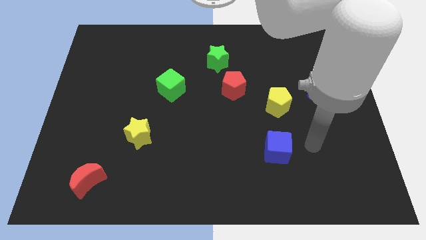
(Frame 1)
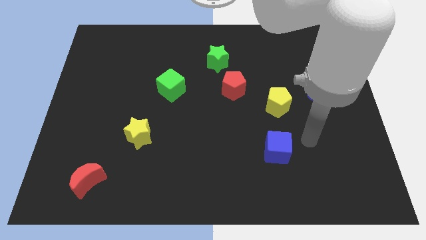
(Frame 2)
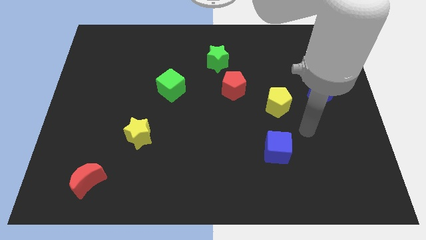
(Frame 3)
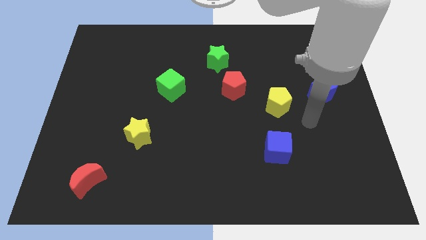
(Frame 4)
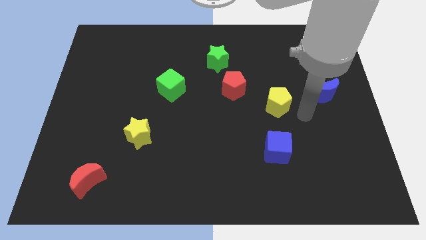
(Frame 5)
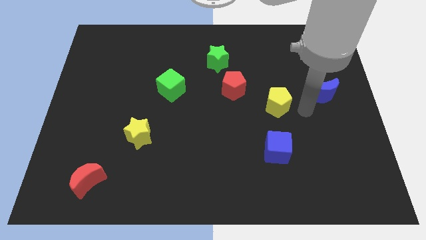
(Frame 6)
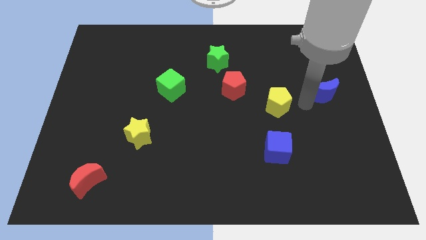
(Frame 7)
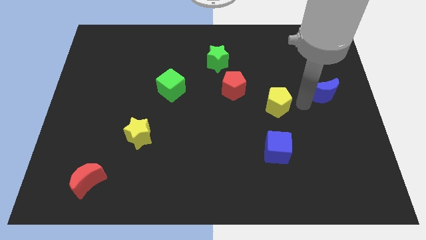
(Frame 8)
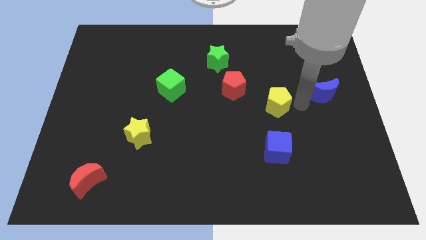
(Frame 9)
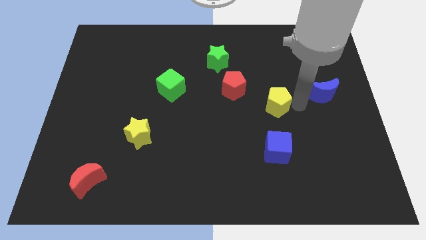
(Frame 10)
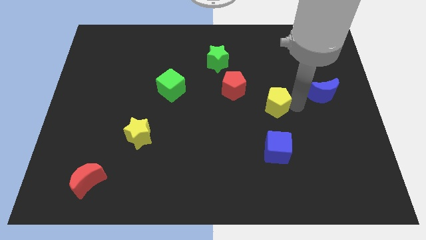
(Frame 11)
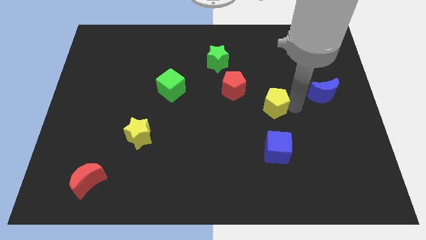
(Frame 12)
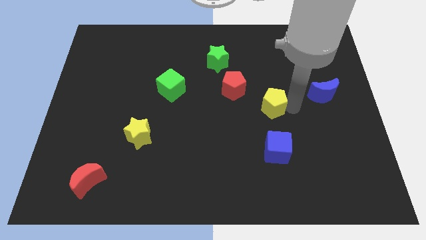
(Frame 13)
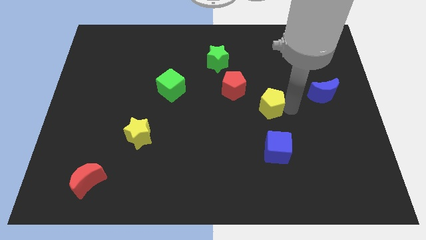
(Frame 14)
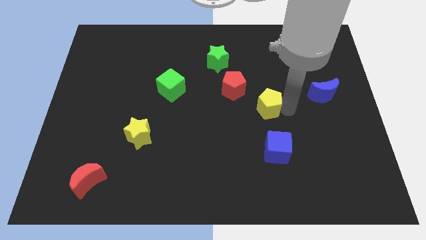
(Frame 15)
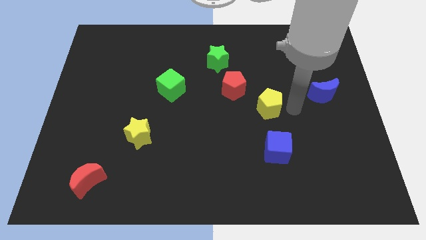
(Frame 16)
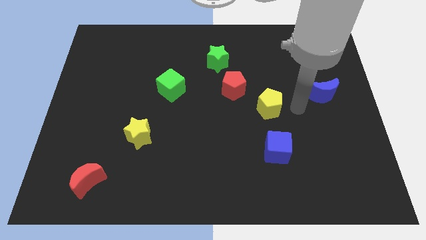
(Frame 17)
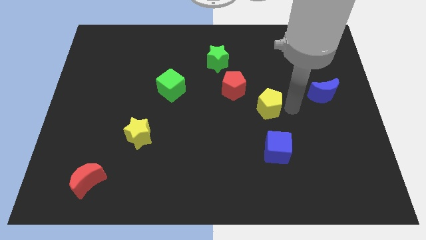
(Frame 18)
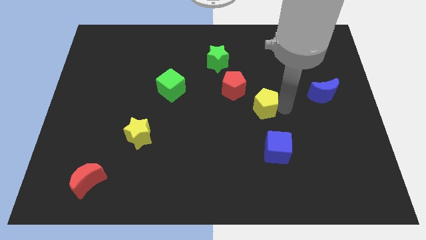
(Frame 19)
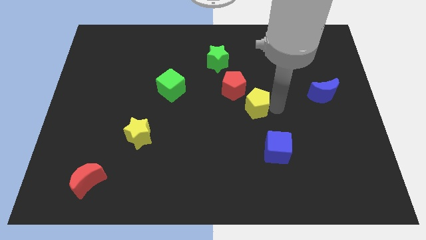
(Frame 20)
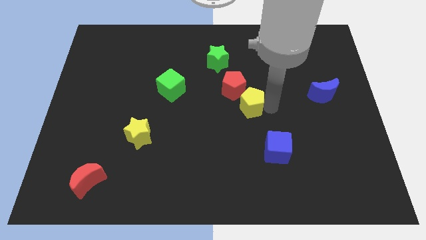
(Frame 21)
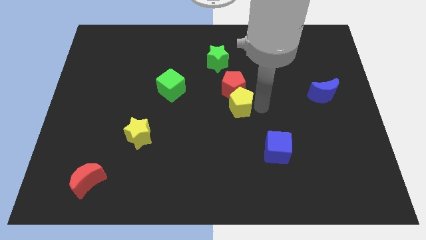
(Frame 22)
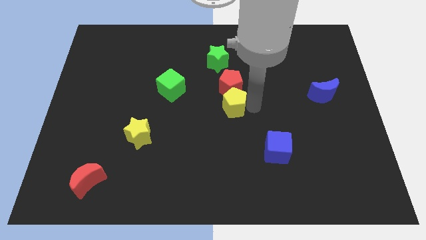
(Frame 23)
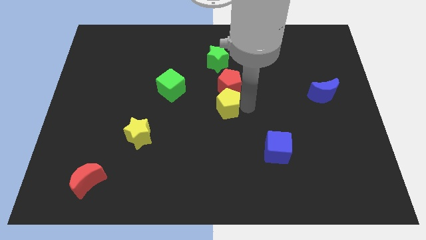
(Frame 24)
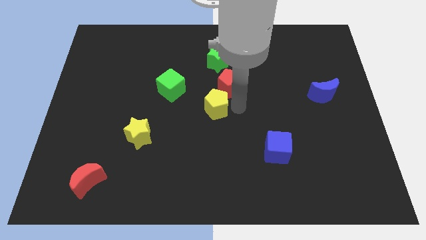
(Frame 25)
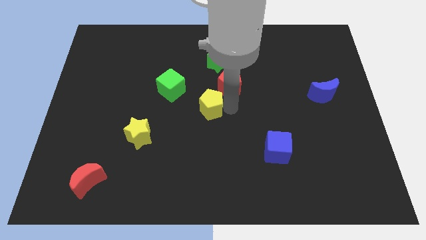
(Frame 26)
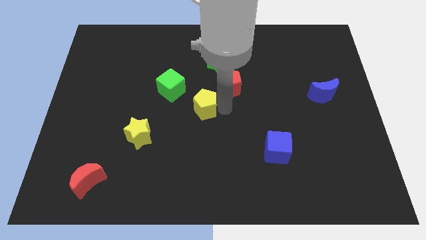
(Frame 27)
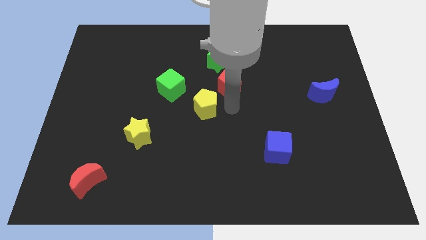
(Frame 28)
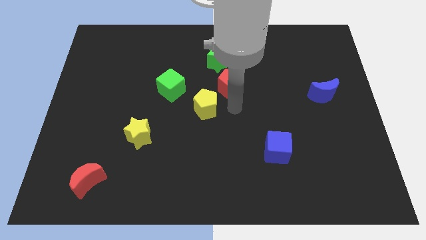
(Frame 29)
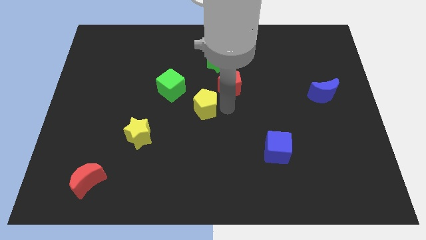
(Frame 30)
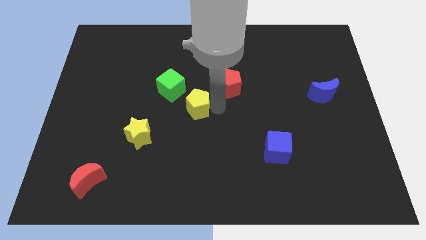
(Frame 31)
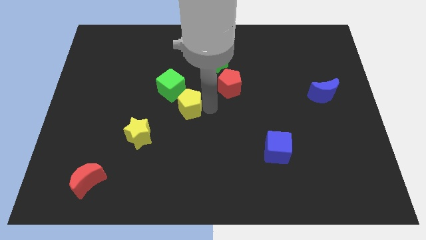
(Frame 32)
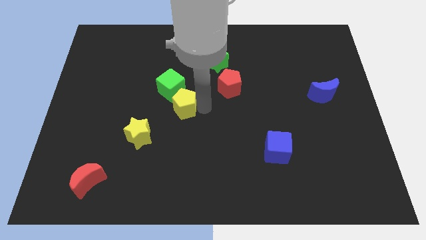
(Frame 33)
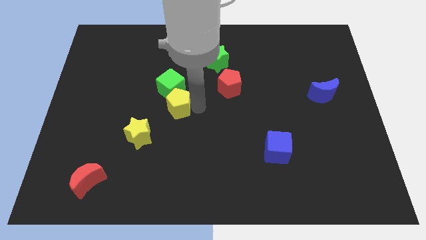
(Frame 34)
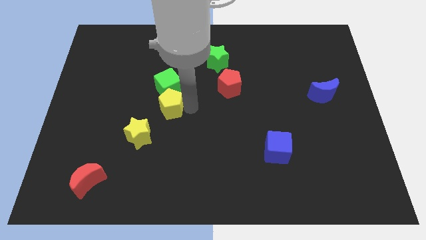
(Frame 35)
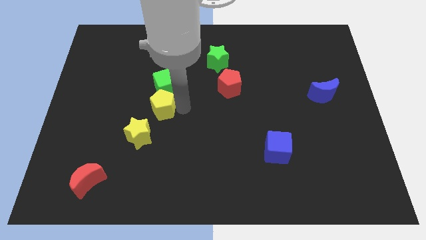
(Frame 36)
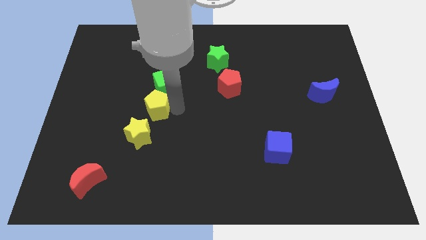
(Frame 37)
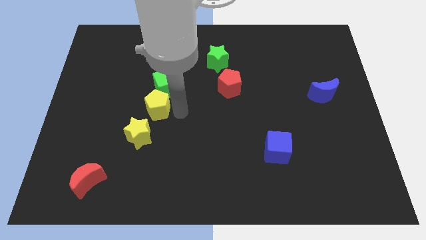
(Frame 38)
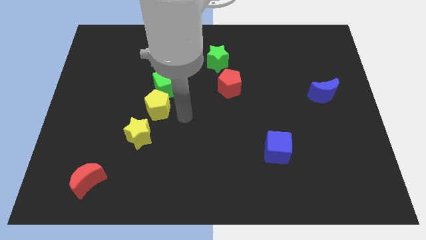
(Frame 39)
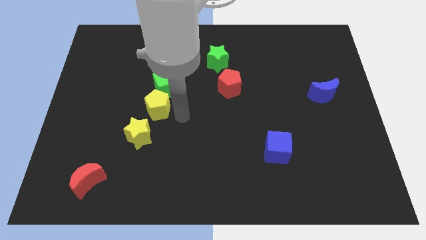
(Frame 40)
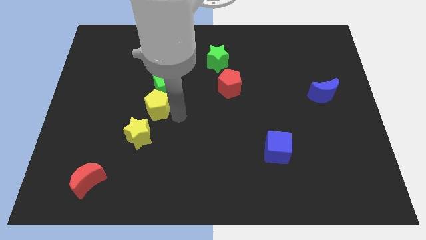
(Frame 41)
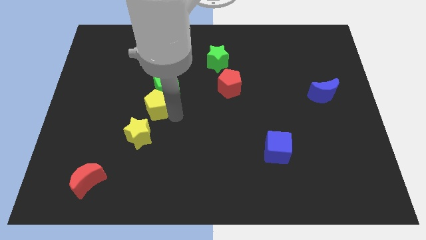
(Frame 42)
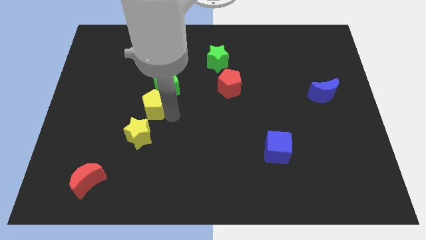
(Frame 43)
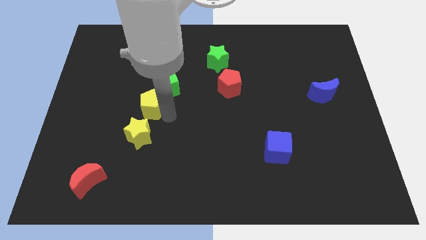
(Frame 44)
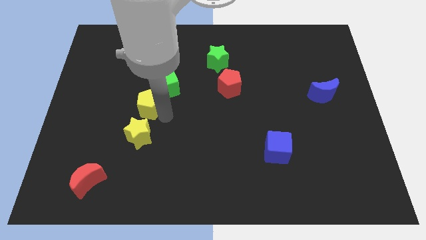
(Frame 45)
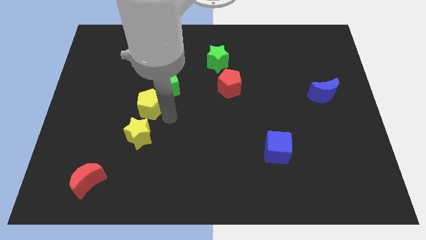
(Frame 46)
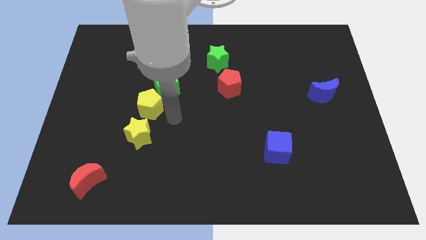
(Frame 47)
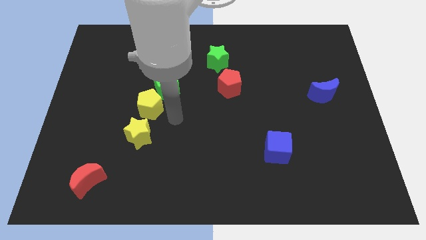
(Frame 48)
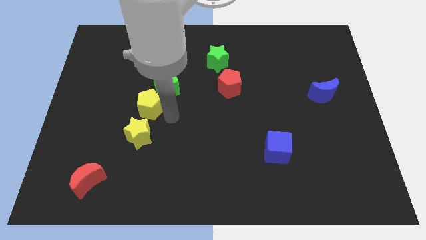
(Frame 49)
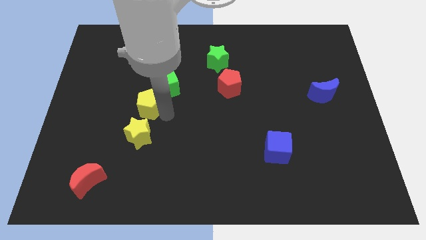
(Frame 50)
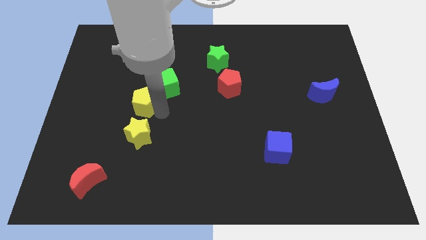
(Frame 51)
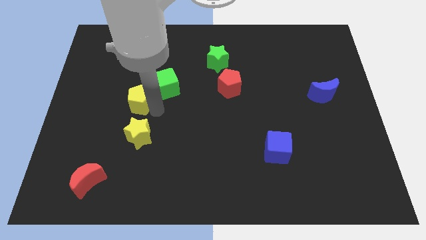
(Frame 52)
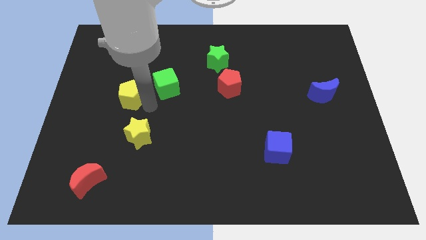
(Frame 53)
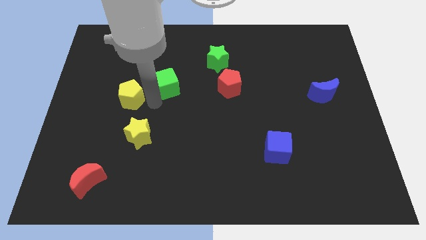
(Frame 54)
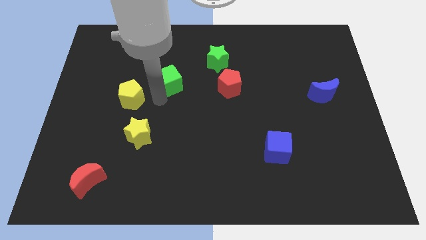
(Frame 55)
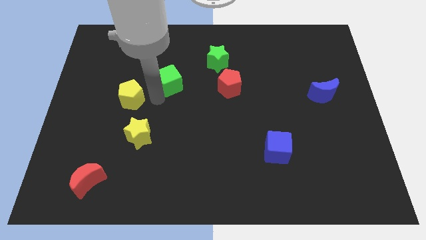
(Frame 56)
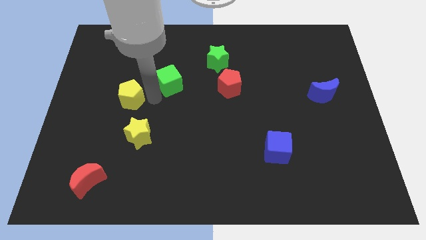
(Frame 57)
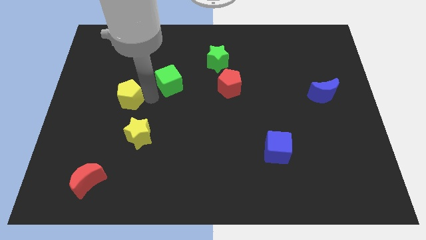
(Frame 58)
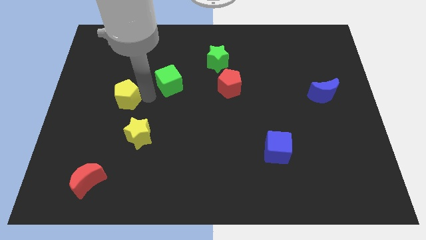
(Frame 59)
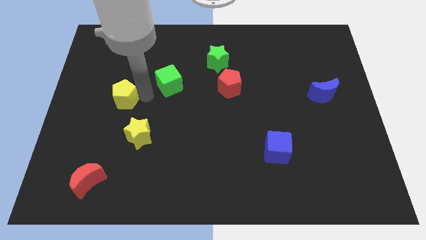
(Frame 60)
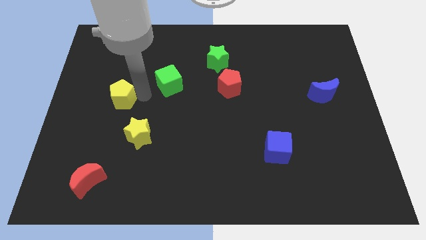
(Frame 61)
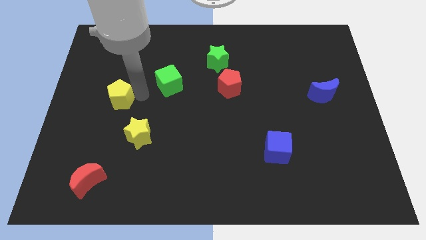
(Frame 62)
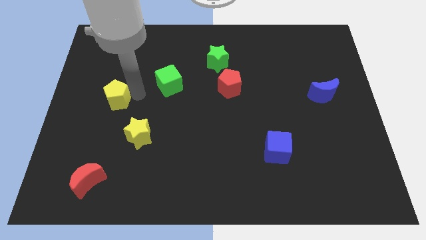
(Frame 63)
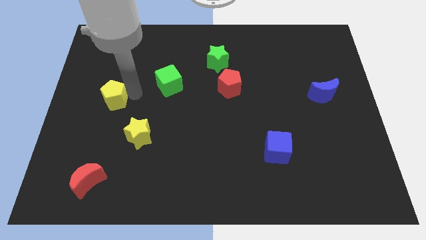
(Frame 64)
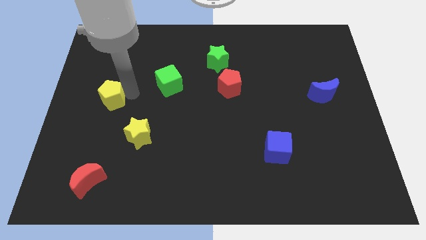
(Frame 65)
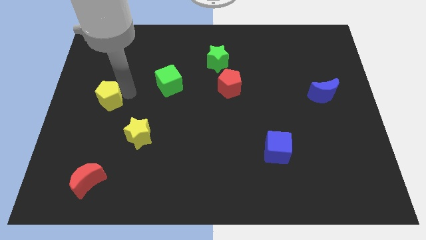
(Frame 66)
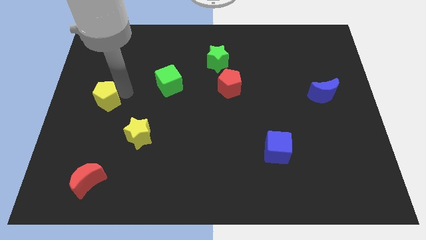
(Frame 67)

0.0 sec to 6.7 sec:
put the yellow pentagon to the center left
